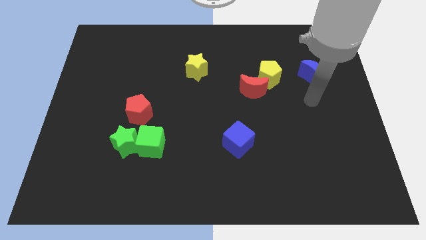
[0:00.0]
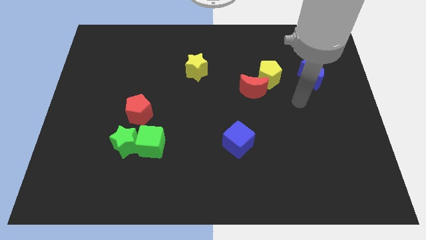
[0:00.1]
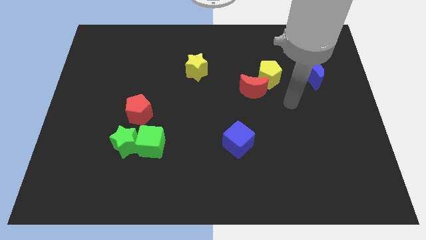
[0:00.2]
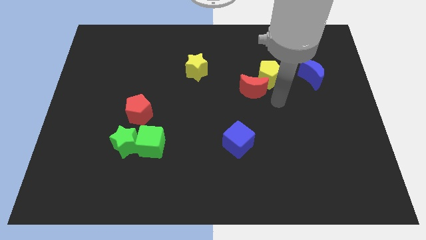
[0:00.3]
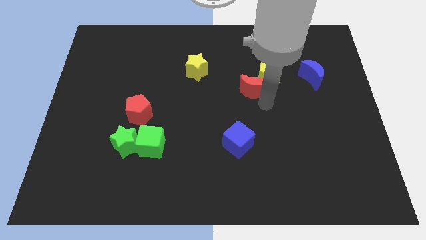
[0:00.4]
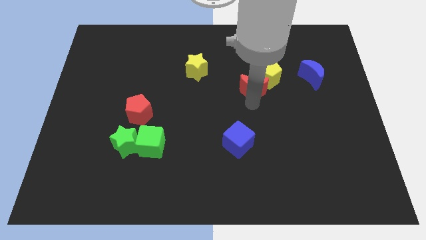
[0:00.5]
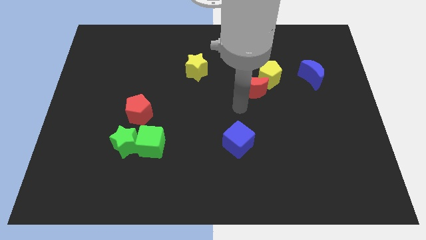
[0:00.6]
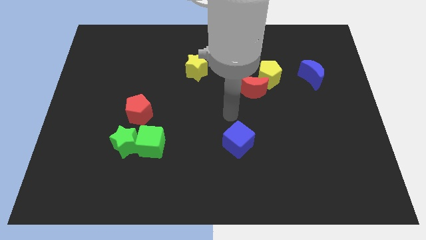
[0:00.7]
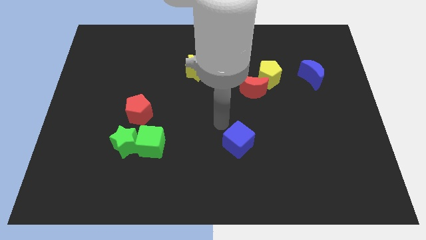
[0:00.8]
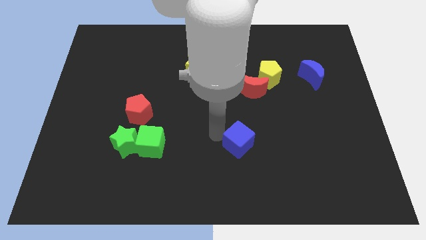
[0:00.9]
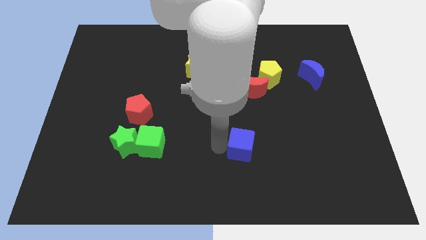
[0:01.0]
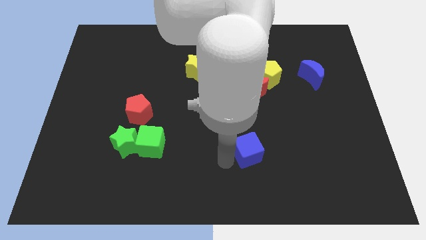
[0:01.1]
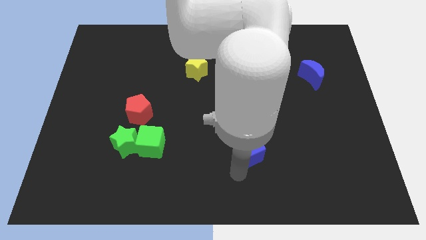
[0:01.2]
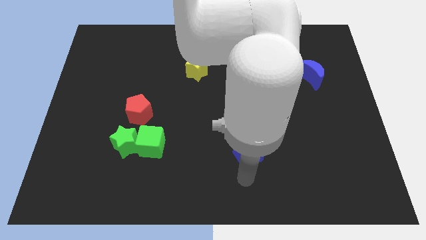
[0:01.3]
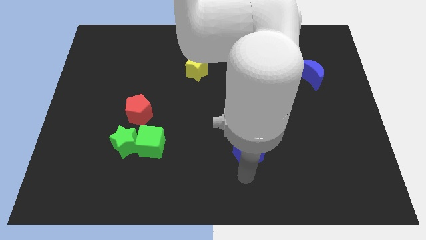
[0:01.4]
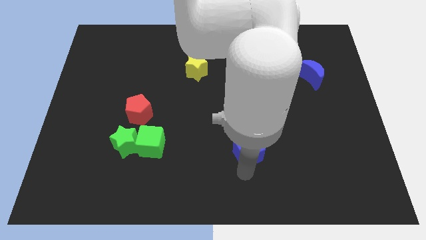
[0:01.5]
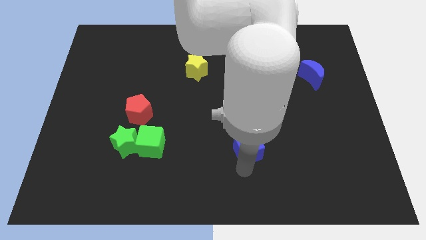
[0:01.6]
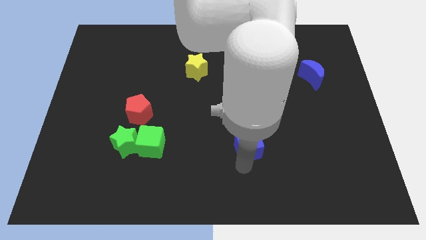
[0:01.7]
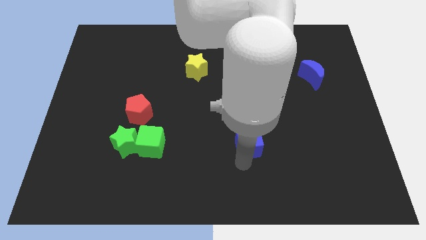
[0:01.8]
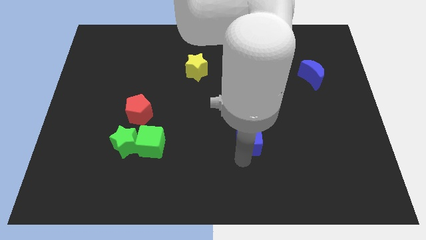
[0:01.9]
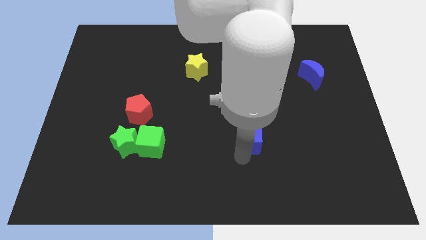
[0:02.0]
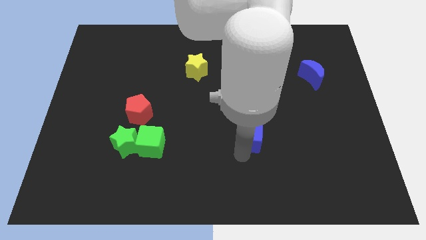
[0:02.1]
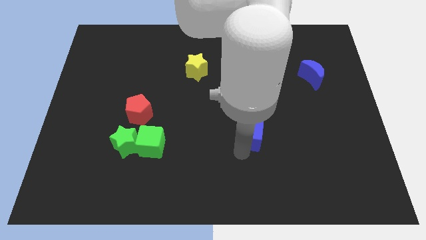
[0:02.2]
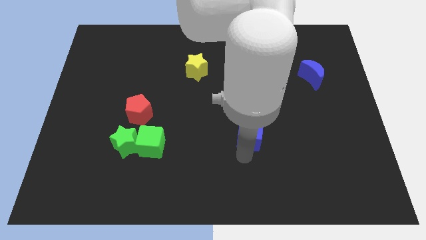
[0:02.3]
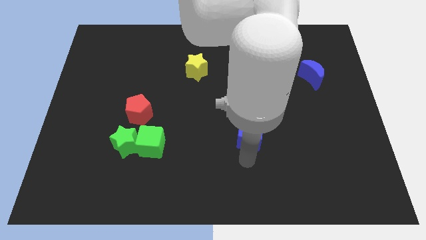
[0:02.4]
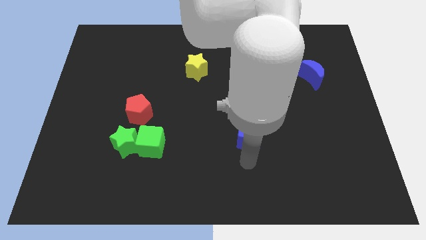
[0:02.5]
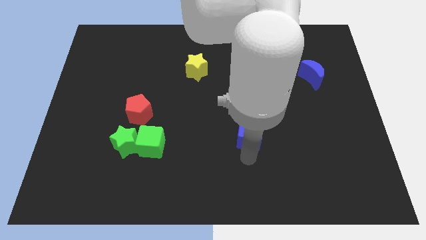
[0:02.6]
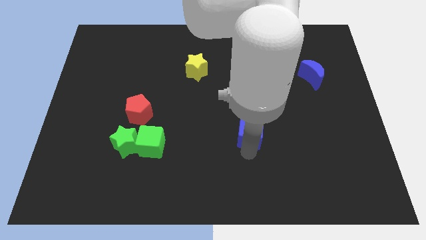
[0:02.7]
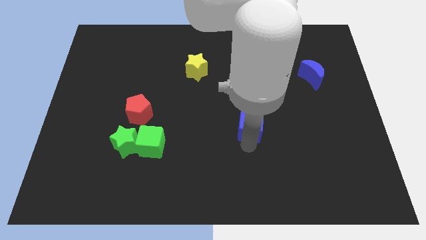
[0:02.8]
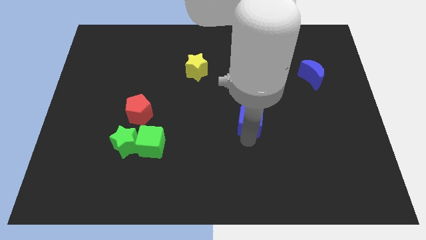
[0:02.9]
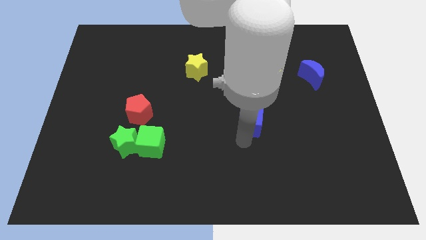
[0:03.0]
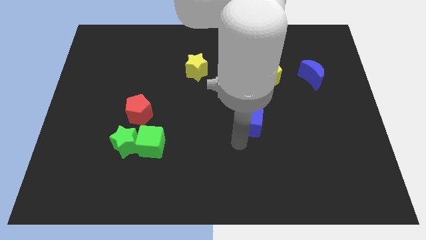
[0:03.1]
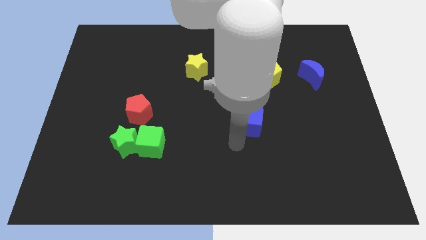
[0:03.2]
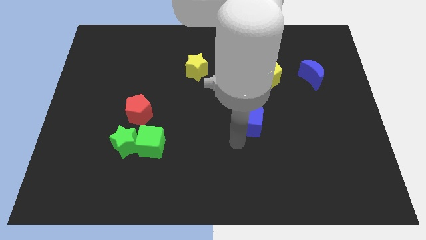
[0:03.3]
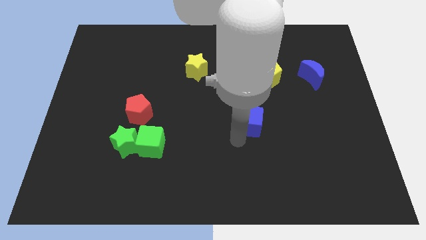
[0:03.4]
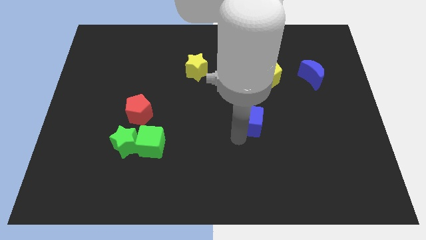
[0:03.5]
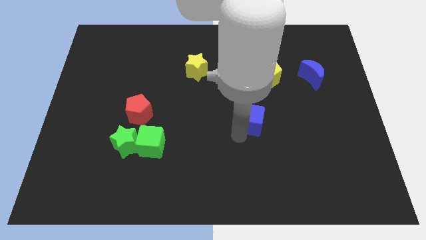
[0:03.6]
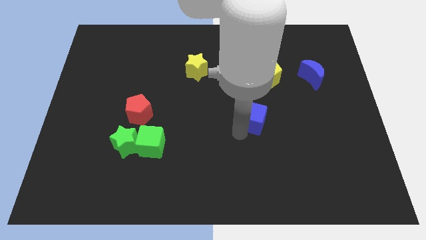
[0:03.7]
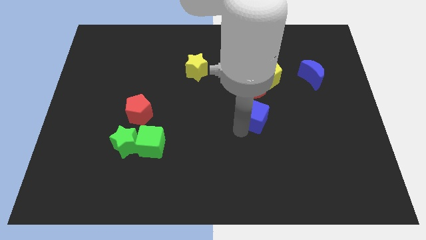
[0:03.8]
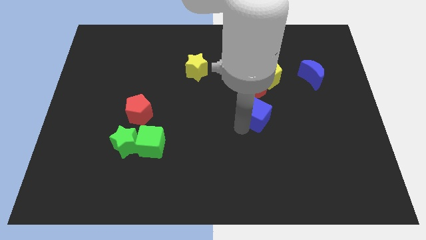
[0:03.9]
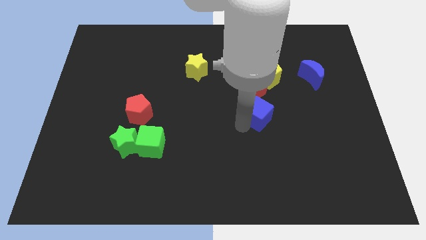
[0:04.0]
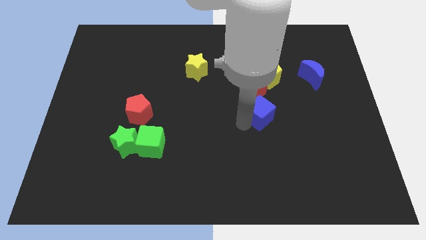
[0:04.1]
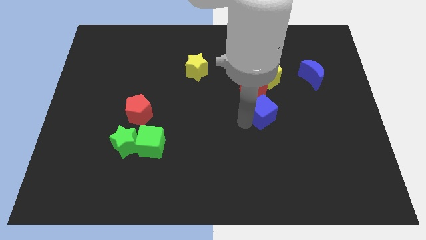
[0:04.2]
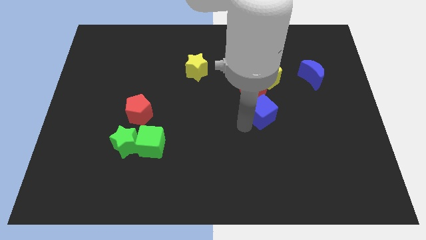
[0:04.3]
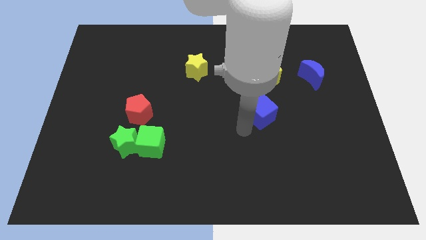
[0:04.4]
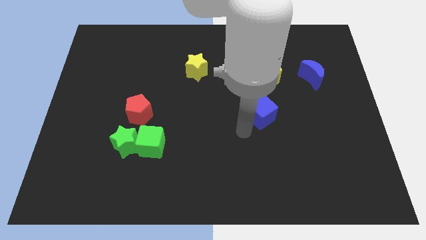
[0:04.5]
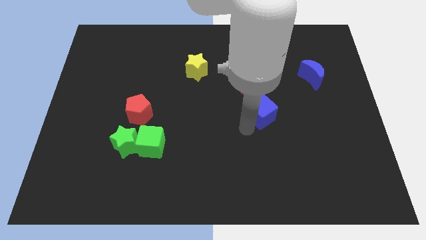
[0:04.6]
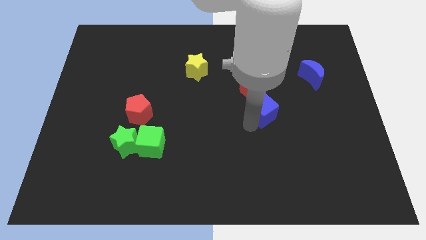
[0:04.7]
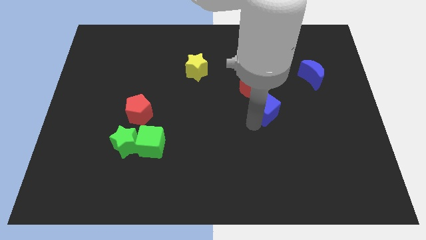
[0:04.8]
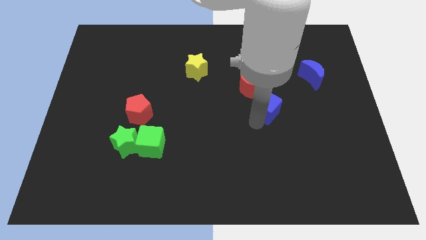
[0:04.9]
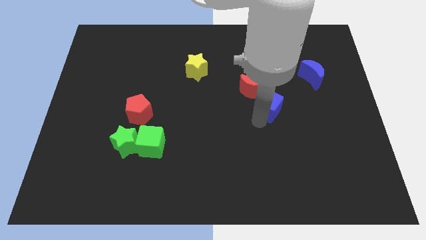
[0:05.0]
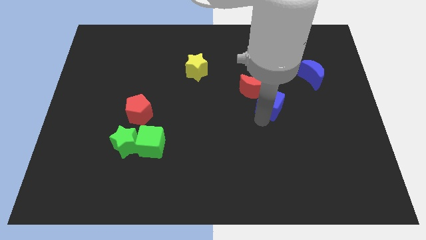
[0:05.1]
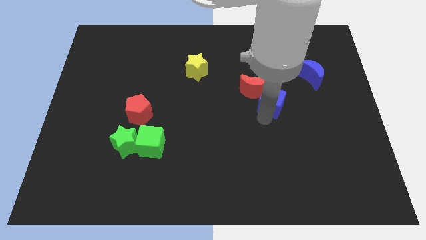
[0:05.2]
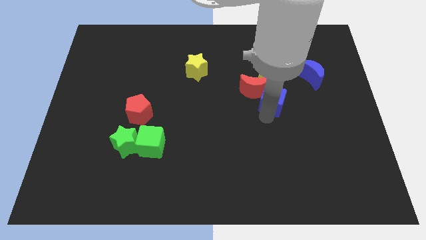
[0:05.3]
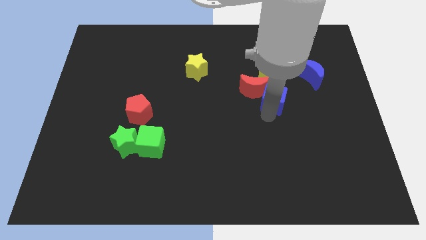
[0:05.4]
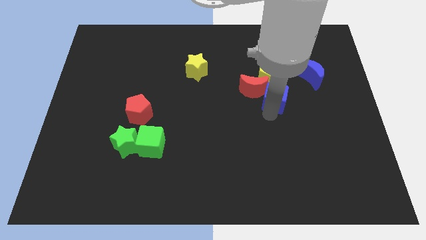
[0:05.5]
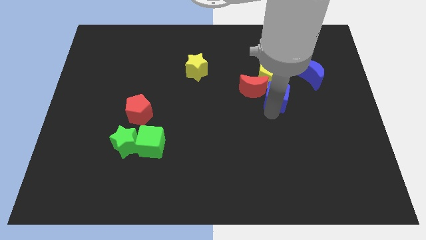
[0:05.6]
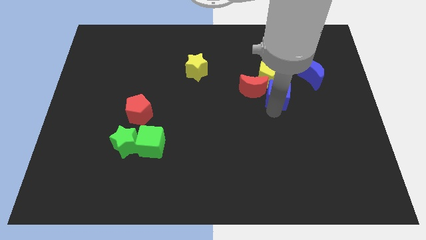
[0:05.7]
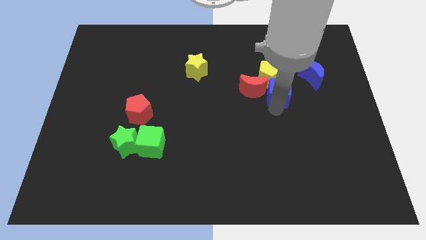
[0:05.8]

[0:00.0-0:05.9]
push the blue cube towards the yellow pentagon

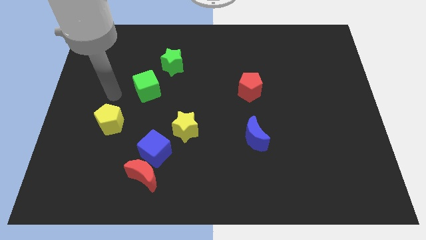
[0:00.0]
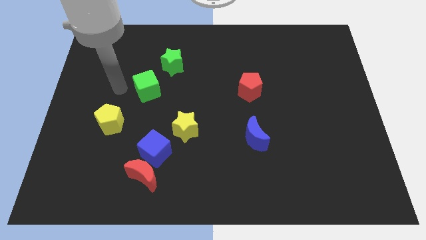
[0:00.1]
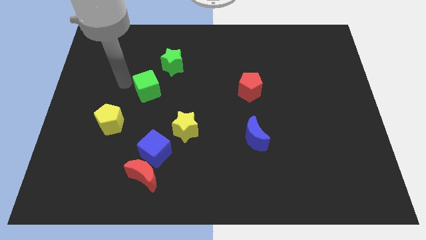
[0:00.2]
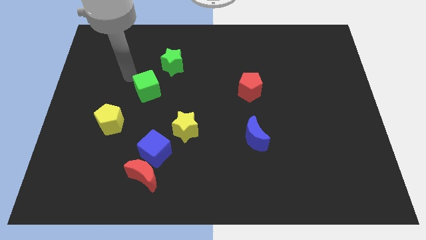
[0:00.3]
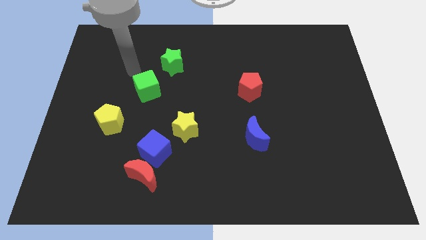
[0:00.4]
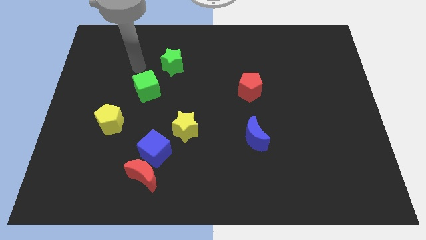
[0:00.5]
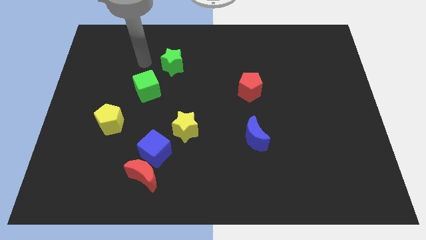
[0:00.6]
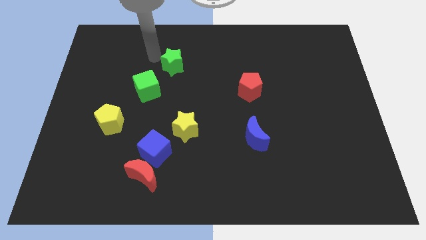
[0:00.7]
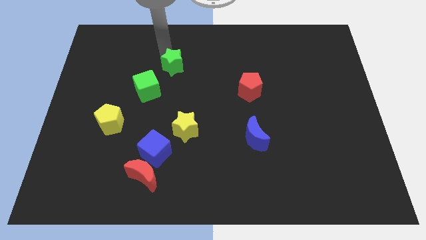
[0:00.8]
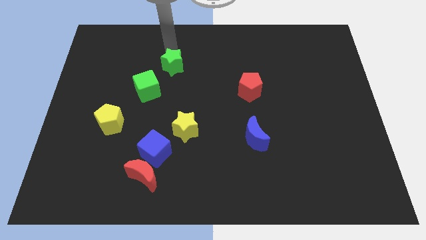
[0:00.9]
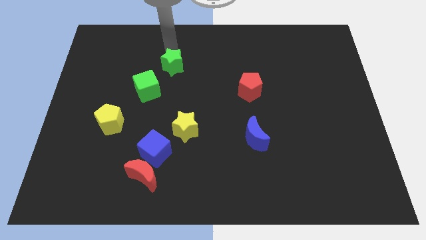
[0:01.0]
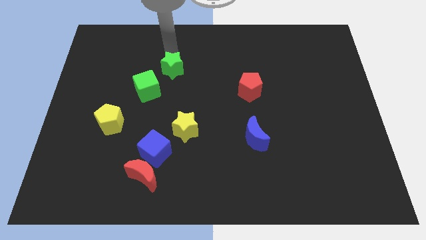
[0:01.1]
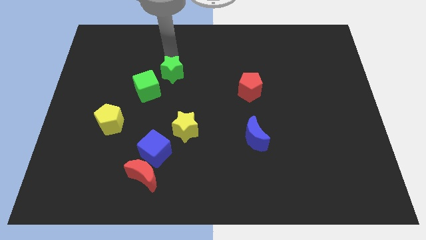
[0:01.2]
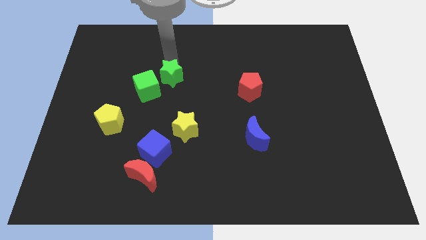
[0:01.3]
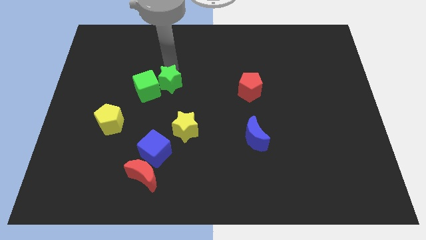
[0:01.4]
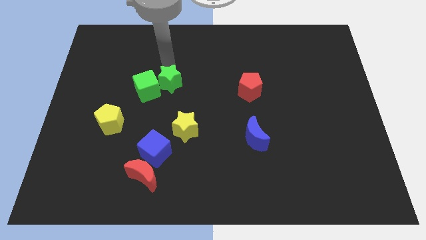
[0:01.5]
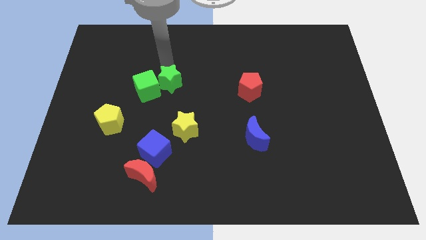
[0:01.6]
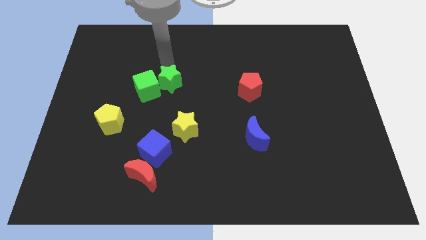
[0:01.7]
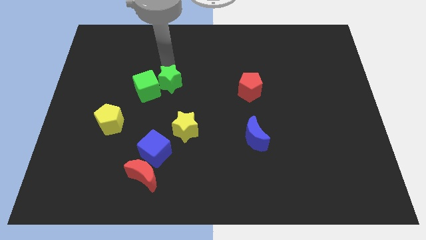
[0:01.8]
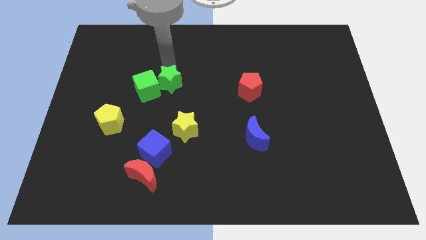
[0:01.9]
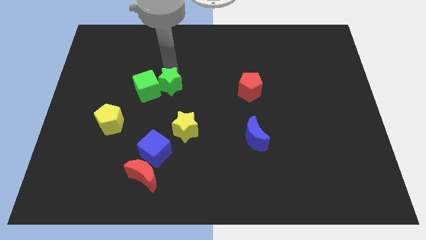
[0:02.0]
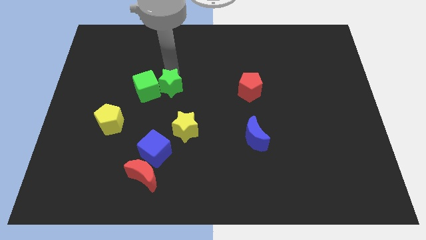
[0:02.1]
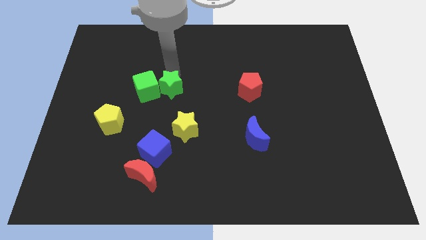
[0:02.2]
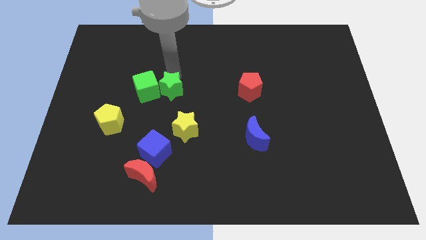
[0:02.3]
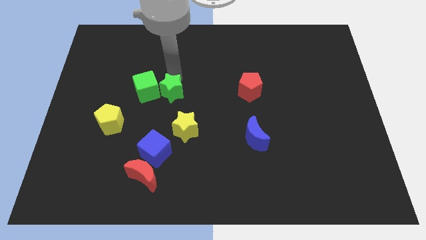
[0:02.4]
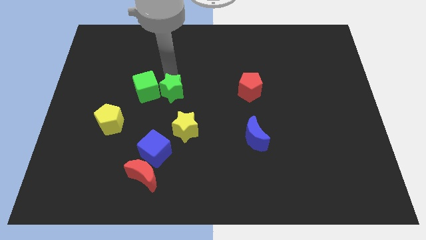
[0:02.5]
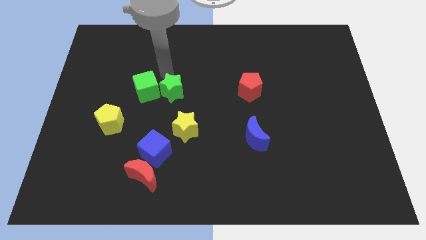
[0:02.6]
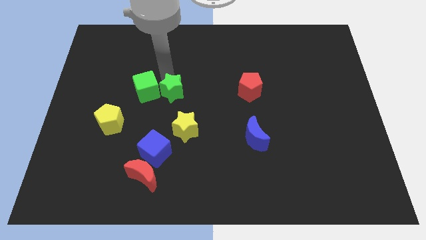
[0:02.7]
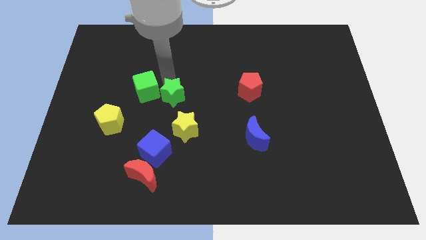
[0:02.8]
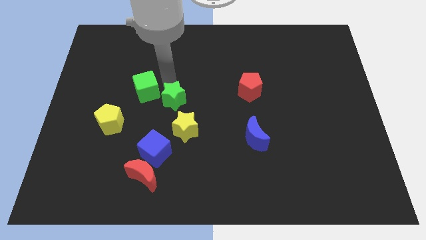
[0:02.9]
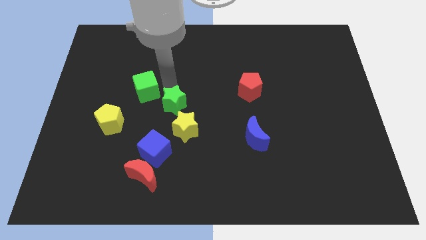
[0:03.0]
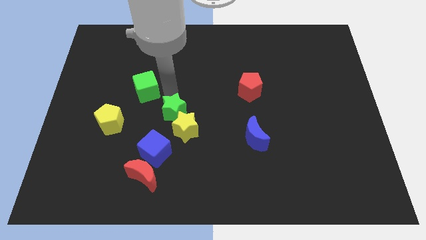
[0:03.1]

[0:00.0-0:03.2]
push the green star next to the yellow star
